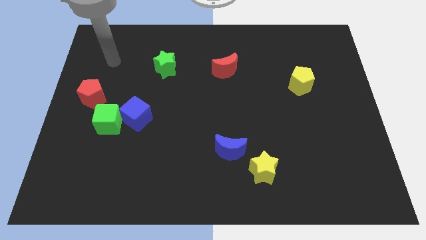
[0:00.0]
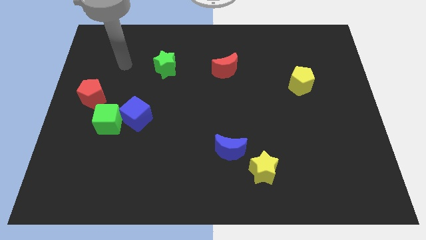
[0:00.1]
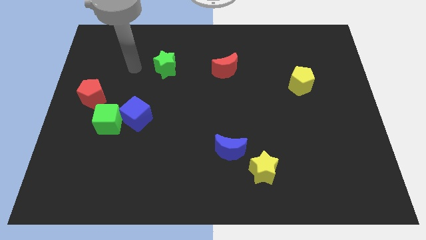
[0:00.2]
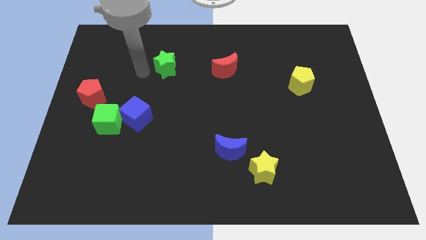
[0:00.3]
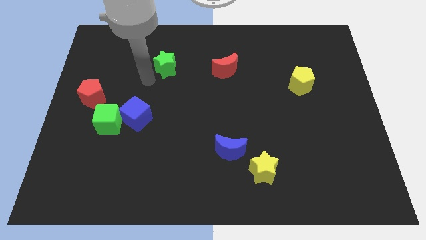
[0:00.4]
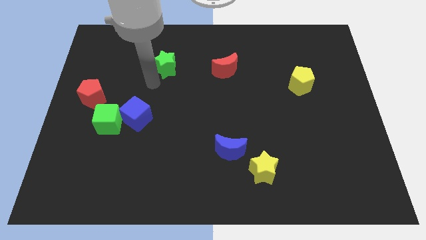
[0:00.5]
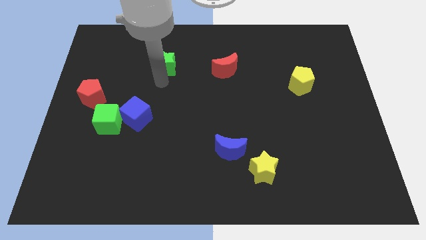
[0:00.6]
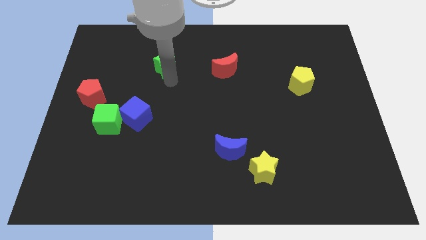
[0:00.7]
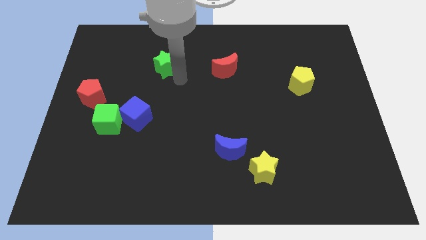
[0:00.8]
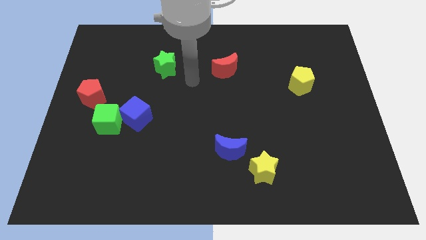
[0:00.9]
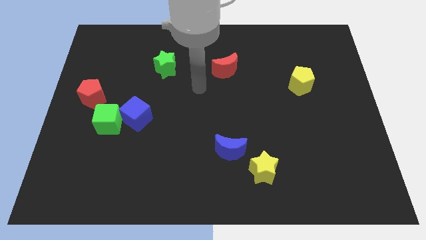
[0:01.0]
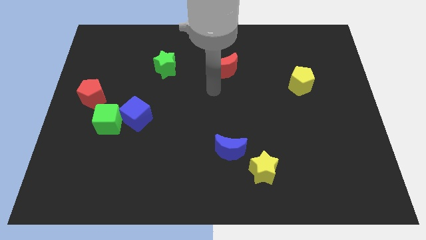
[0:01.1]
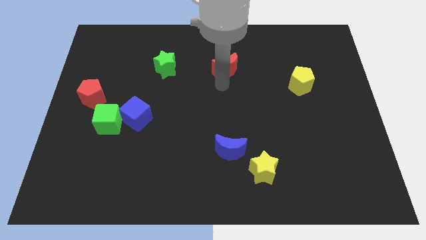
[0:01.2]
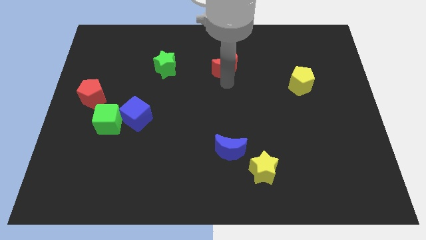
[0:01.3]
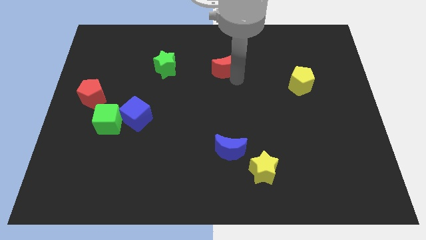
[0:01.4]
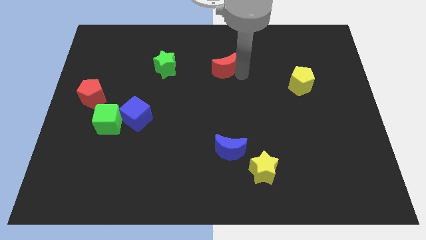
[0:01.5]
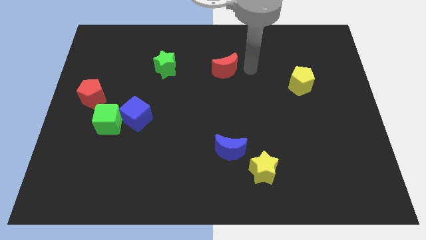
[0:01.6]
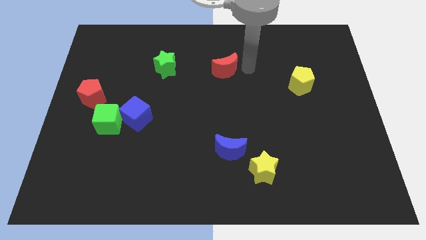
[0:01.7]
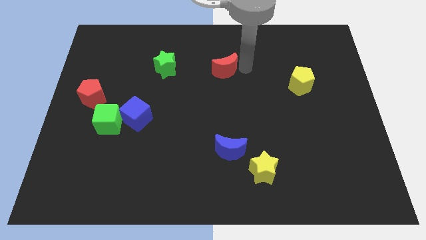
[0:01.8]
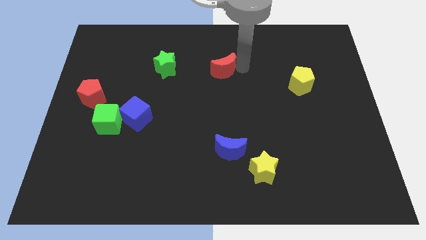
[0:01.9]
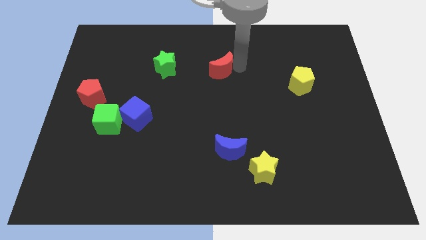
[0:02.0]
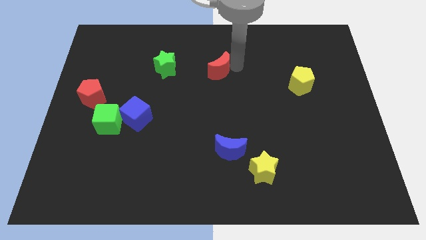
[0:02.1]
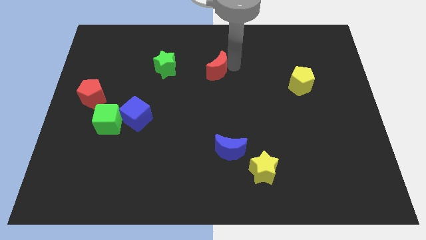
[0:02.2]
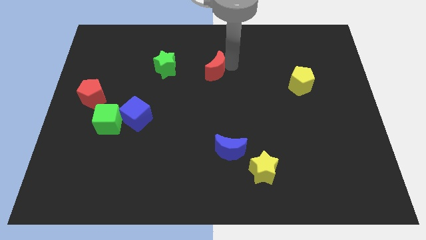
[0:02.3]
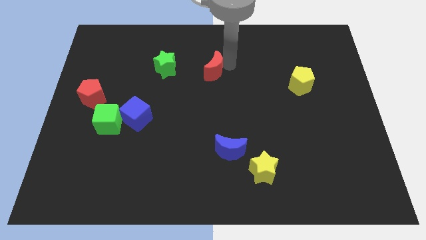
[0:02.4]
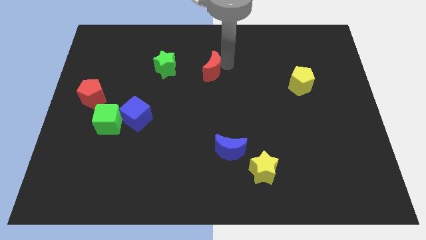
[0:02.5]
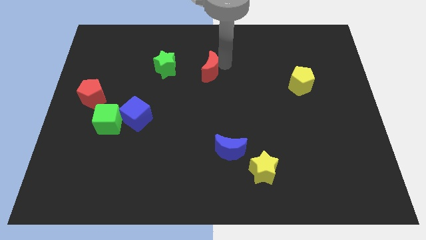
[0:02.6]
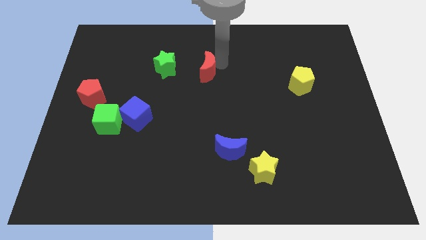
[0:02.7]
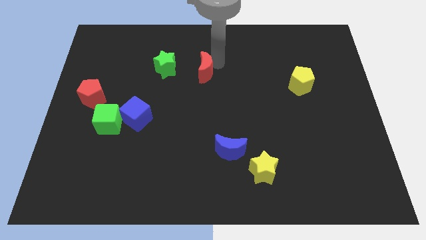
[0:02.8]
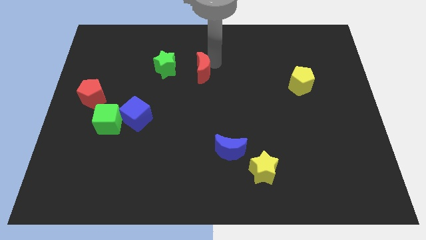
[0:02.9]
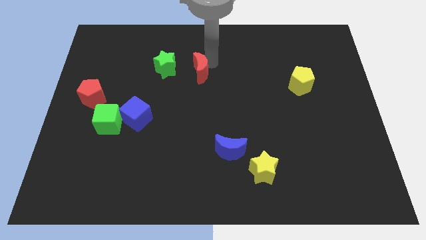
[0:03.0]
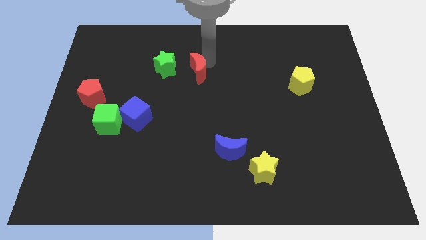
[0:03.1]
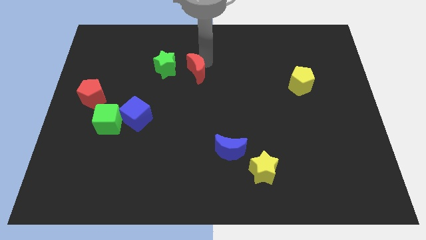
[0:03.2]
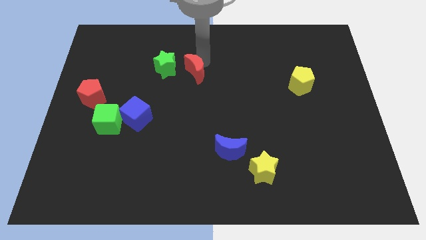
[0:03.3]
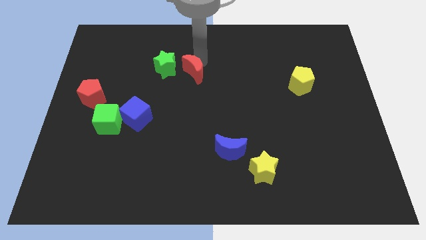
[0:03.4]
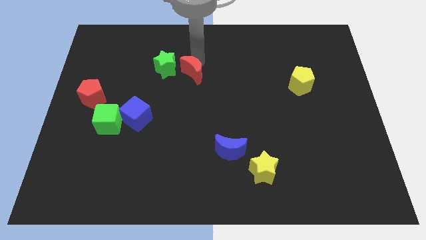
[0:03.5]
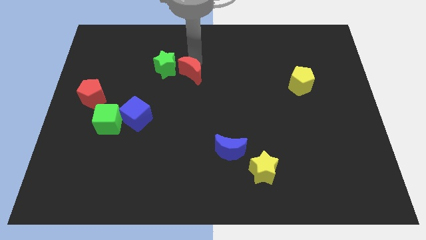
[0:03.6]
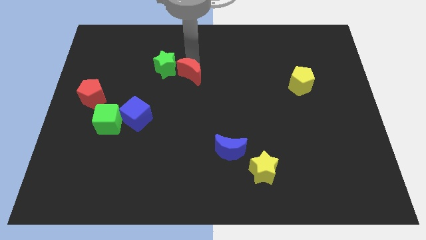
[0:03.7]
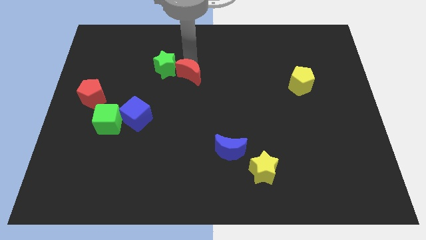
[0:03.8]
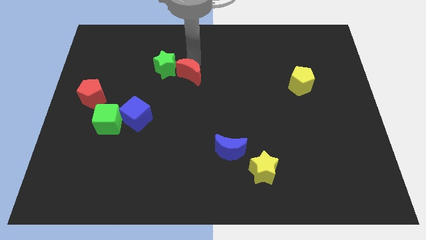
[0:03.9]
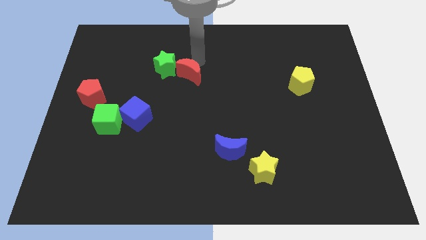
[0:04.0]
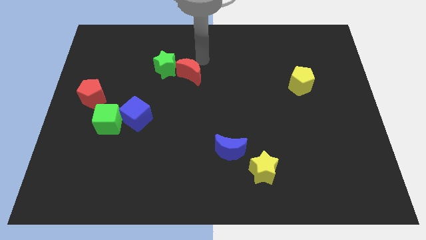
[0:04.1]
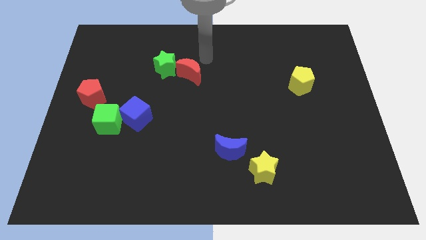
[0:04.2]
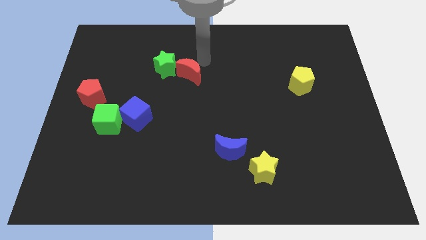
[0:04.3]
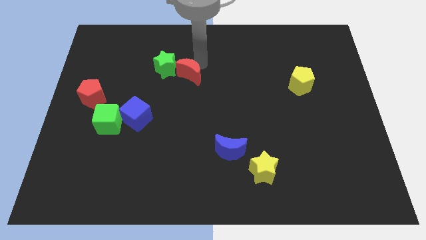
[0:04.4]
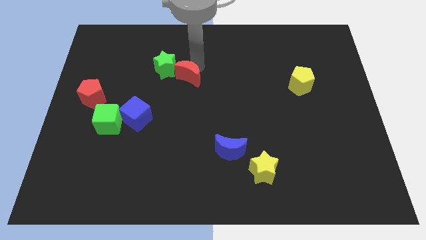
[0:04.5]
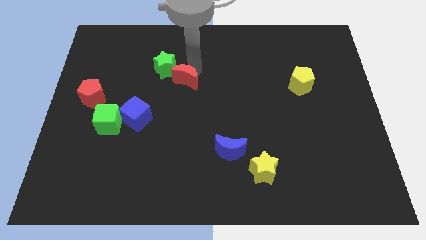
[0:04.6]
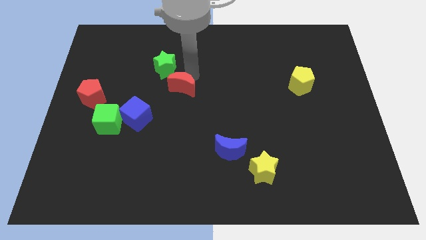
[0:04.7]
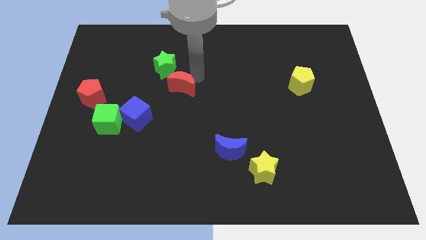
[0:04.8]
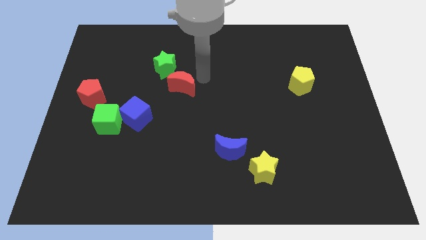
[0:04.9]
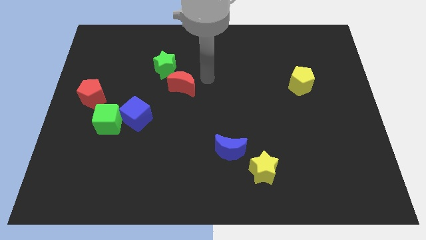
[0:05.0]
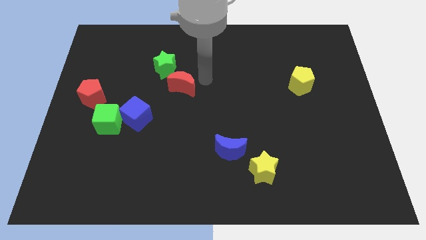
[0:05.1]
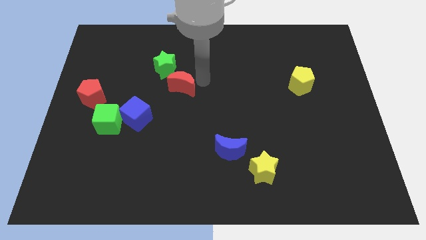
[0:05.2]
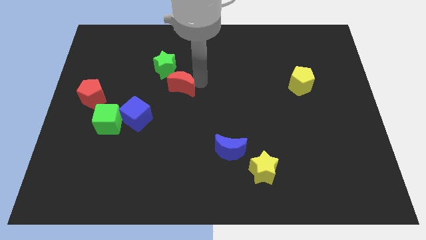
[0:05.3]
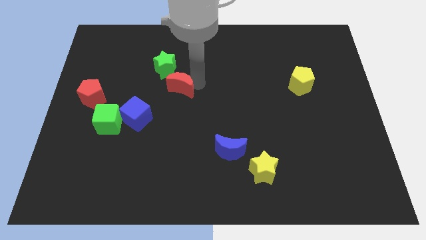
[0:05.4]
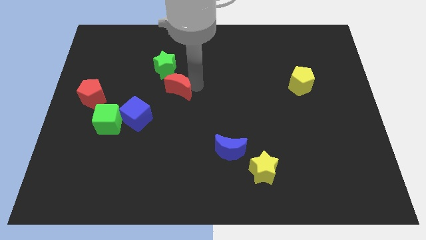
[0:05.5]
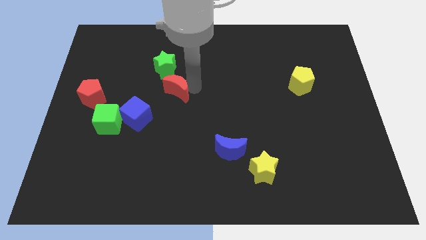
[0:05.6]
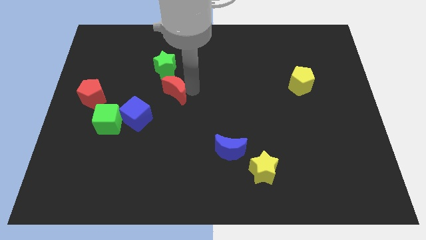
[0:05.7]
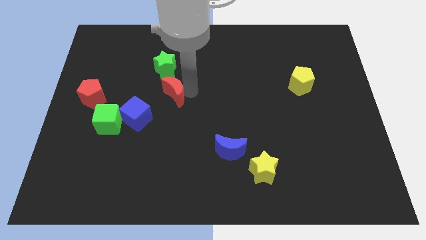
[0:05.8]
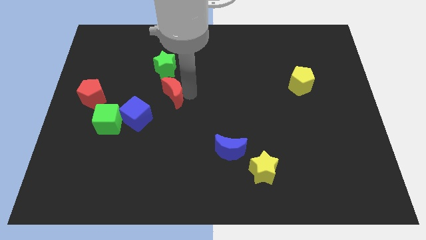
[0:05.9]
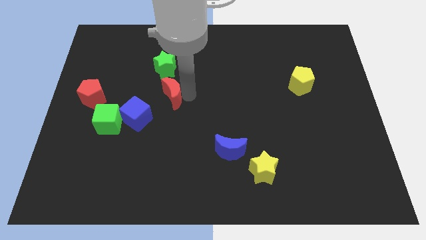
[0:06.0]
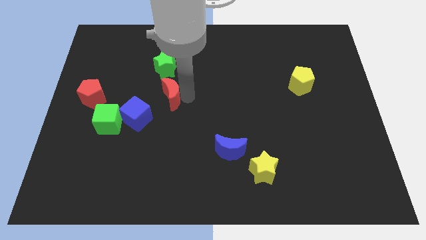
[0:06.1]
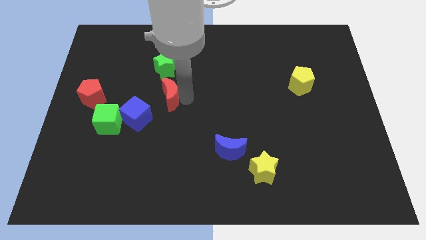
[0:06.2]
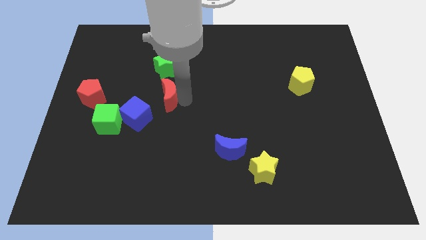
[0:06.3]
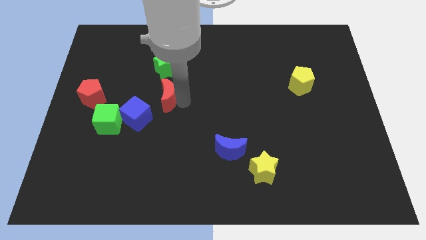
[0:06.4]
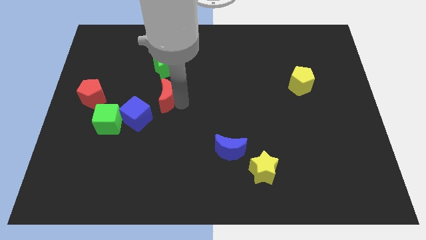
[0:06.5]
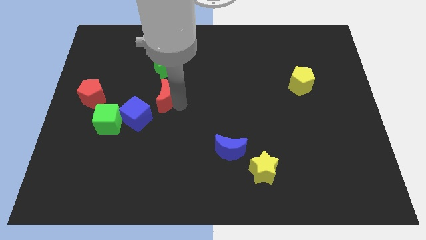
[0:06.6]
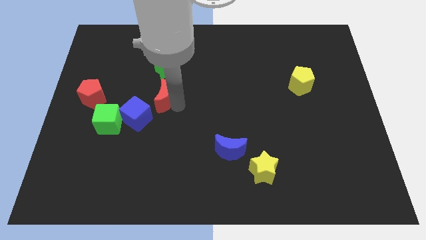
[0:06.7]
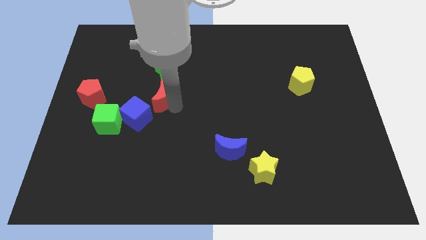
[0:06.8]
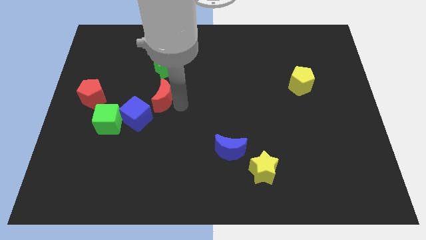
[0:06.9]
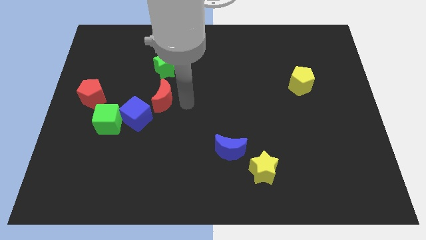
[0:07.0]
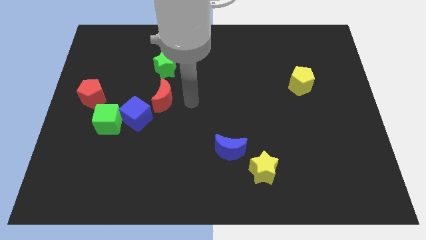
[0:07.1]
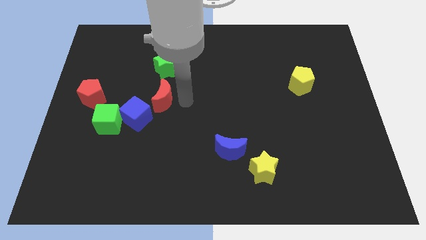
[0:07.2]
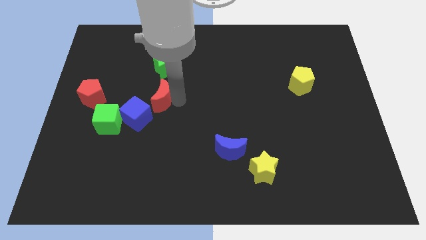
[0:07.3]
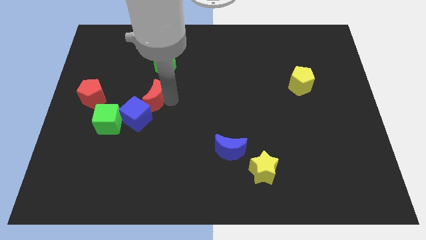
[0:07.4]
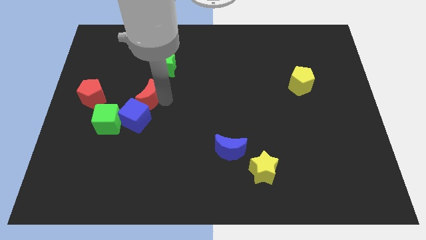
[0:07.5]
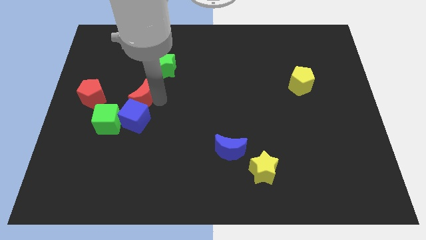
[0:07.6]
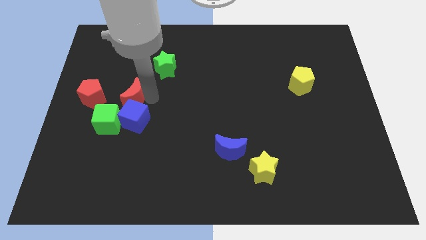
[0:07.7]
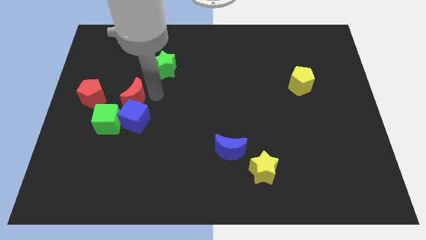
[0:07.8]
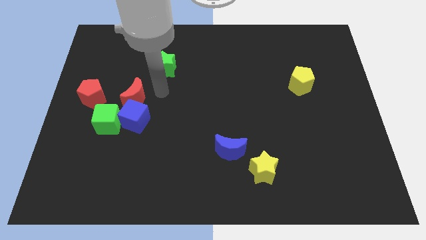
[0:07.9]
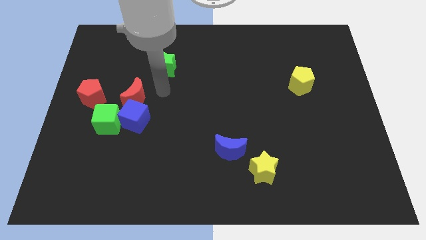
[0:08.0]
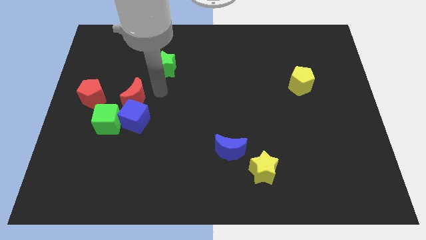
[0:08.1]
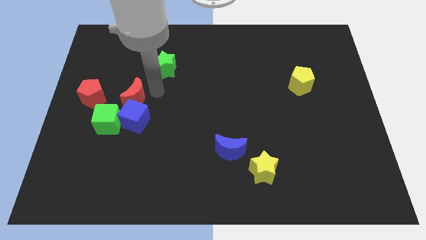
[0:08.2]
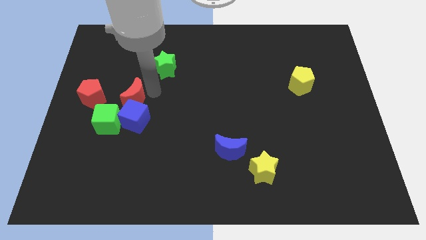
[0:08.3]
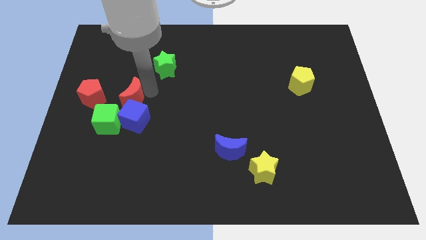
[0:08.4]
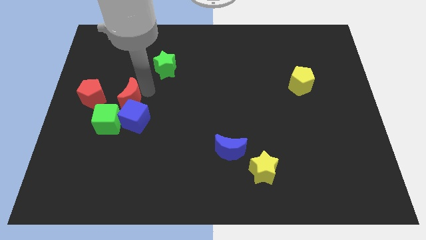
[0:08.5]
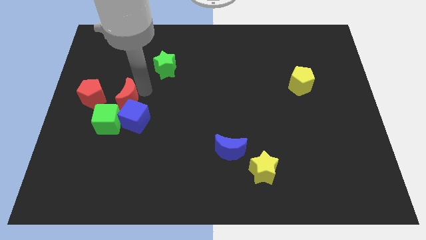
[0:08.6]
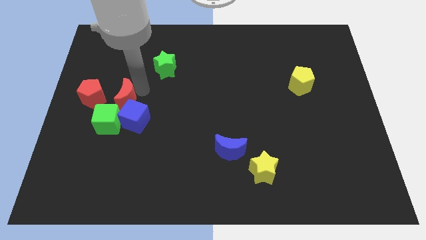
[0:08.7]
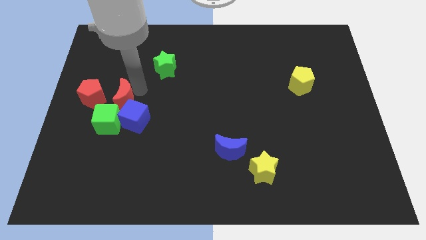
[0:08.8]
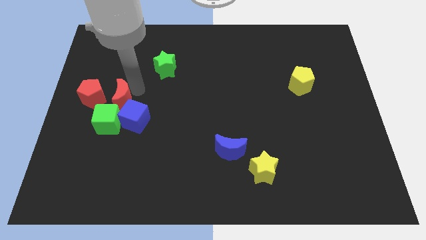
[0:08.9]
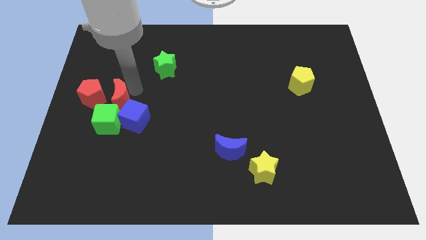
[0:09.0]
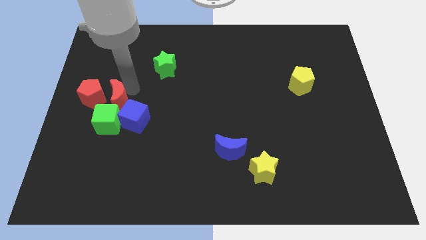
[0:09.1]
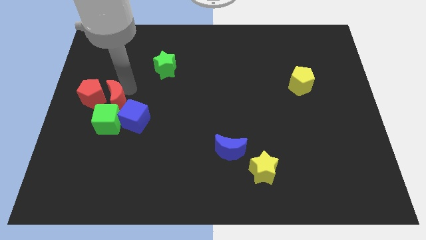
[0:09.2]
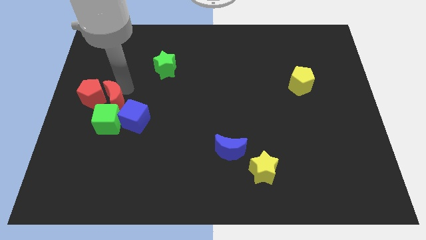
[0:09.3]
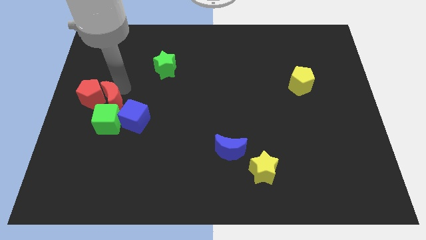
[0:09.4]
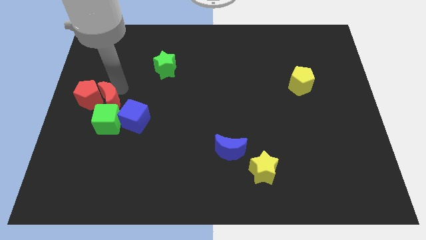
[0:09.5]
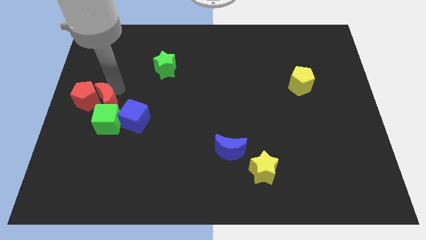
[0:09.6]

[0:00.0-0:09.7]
put the red moon to the left side of the board
